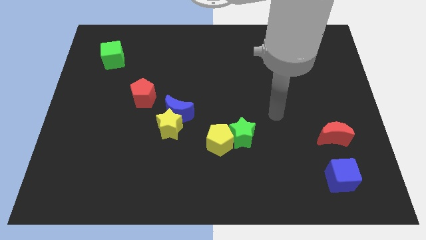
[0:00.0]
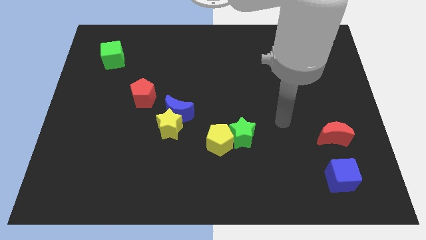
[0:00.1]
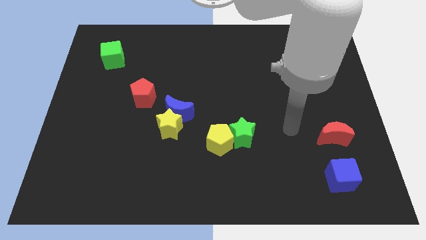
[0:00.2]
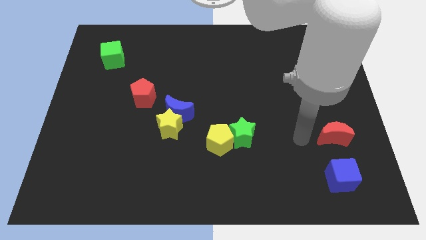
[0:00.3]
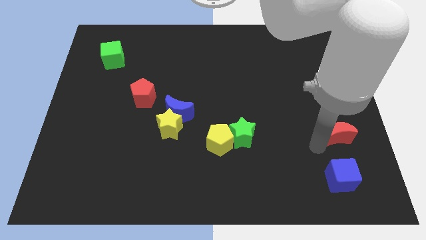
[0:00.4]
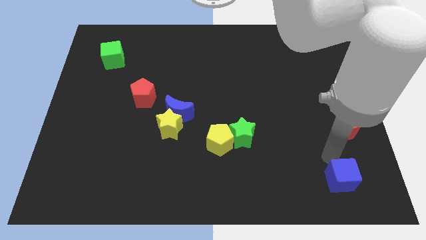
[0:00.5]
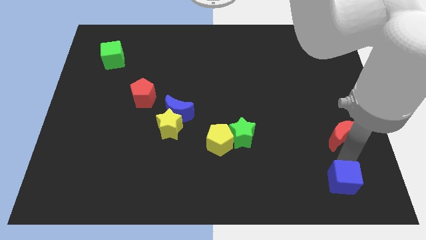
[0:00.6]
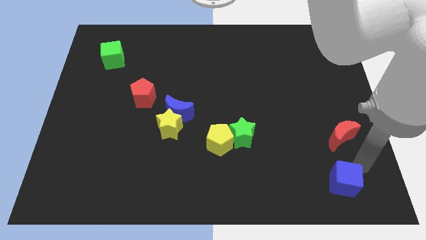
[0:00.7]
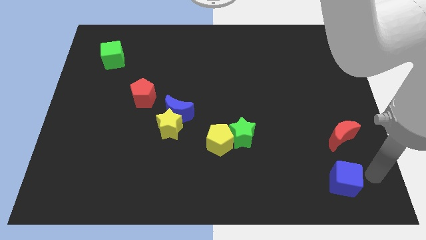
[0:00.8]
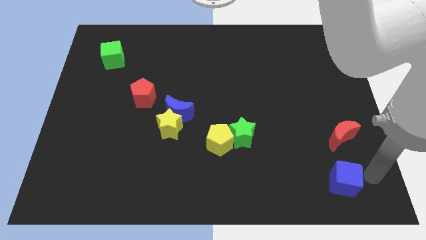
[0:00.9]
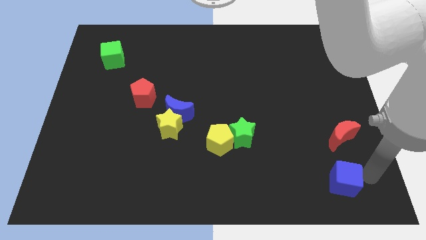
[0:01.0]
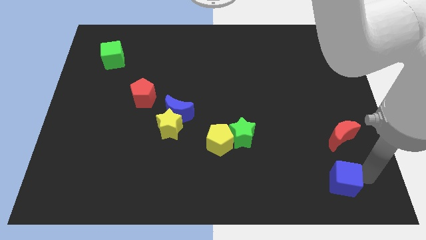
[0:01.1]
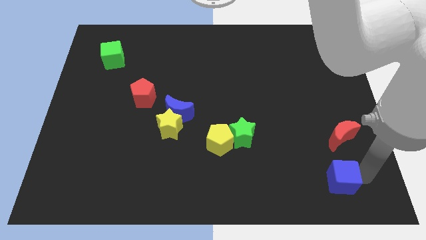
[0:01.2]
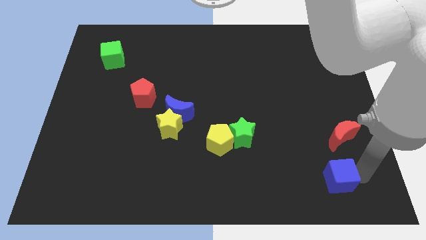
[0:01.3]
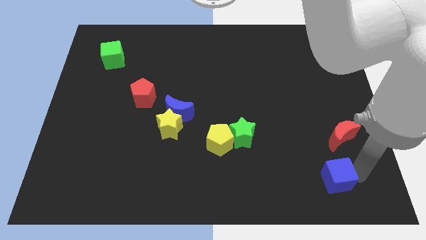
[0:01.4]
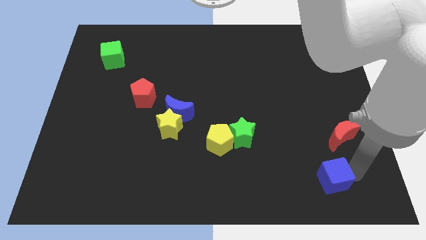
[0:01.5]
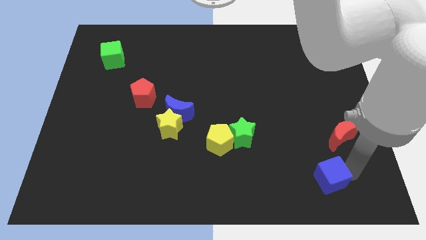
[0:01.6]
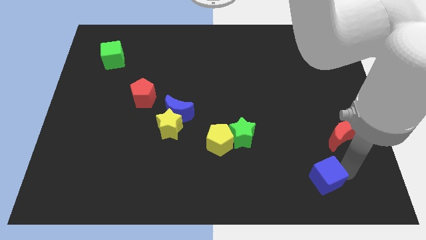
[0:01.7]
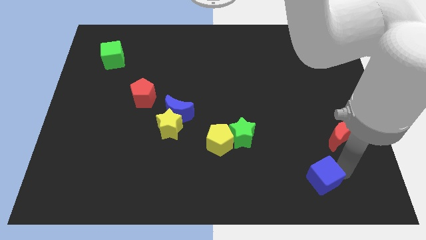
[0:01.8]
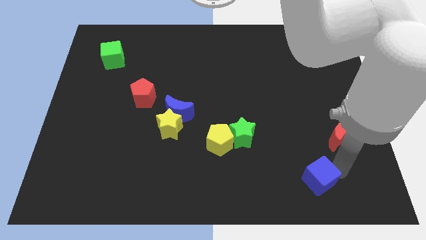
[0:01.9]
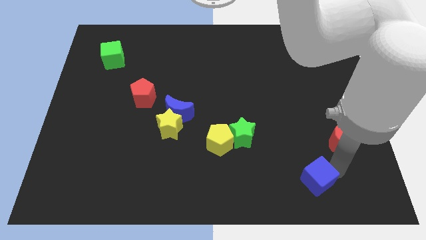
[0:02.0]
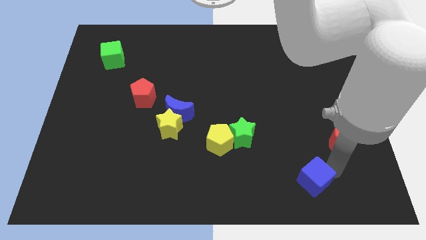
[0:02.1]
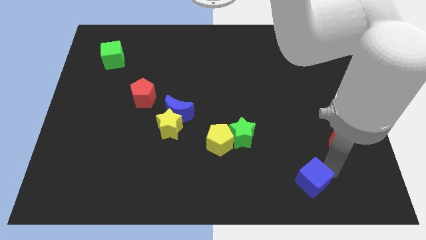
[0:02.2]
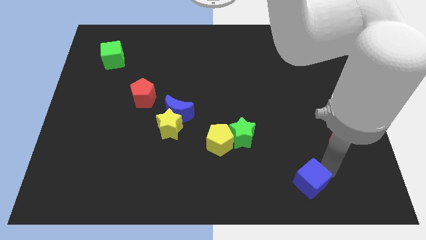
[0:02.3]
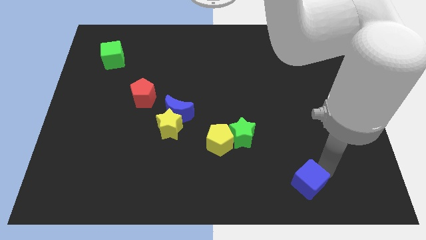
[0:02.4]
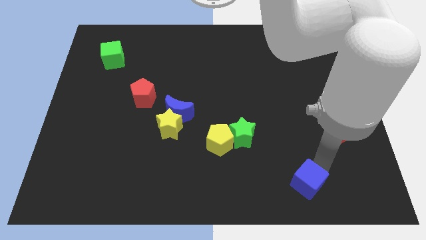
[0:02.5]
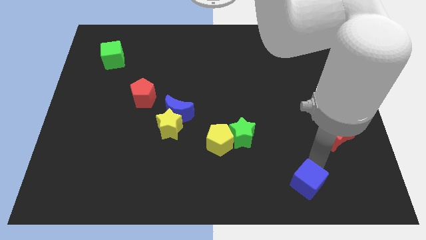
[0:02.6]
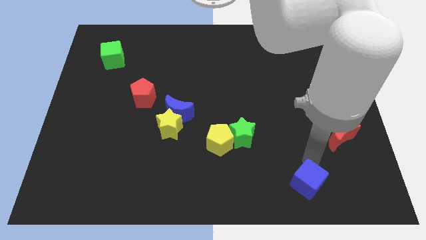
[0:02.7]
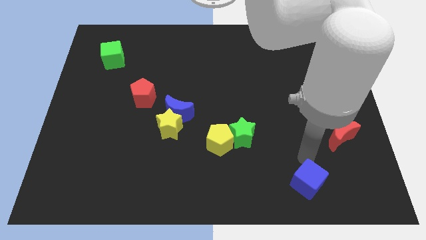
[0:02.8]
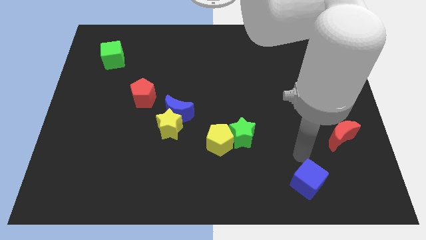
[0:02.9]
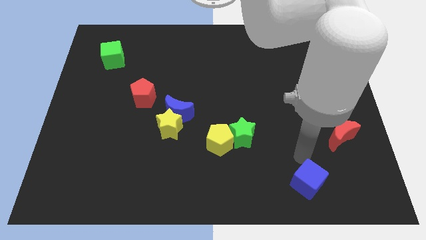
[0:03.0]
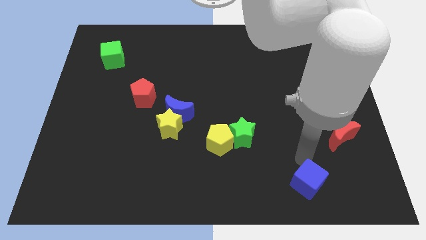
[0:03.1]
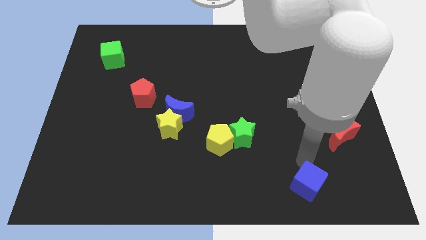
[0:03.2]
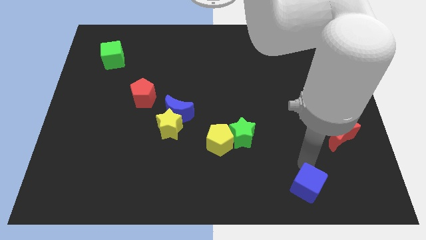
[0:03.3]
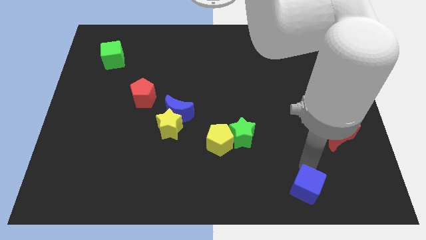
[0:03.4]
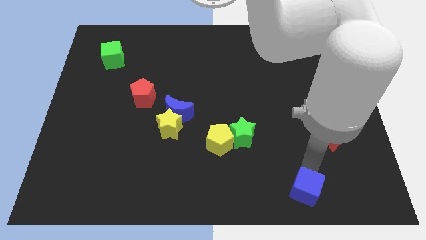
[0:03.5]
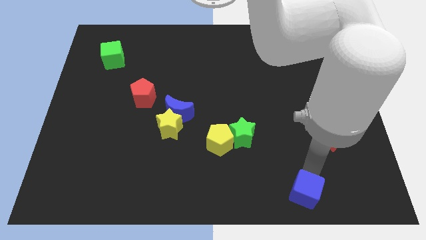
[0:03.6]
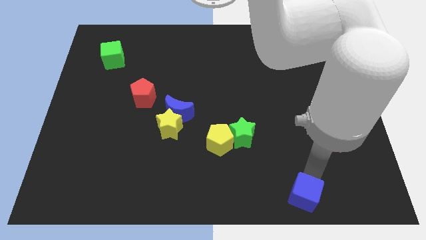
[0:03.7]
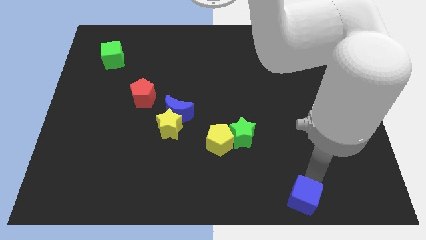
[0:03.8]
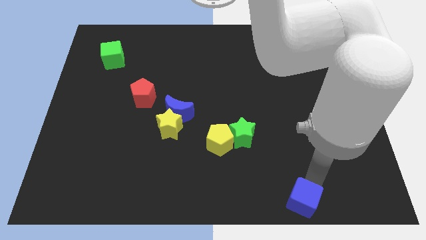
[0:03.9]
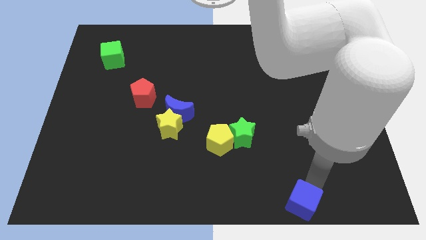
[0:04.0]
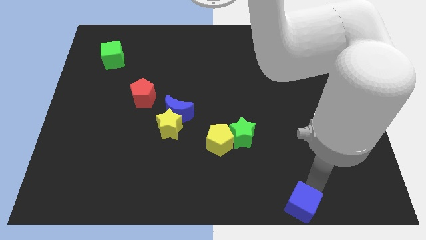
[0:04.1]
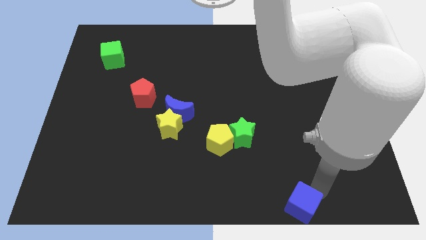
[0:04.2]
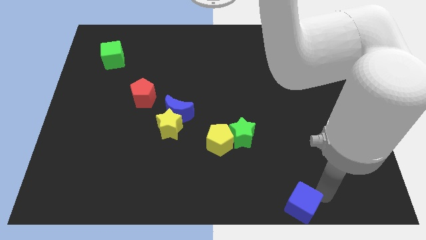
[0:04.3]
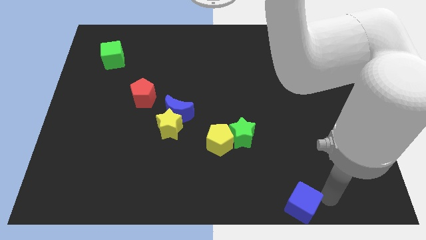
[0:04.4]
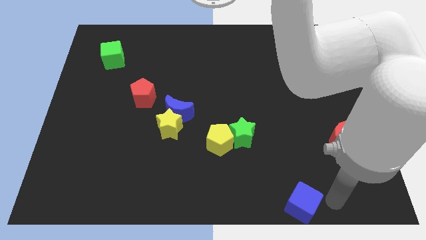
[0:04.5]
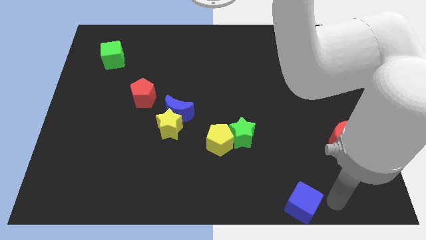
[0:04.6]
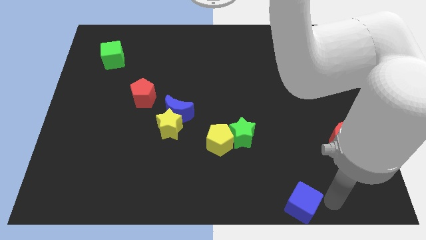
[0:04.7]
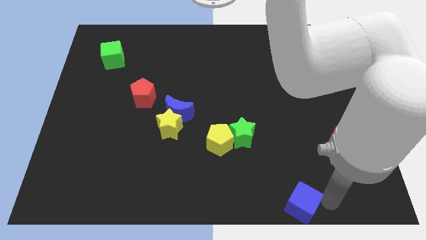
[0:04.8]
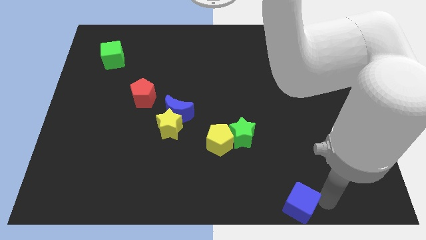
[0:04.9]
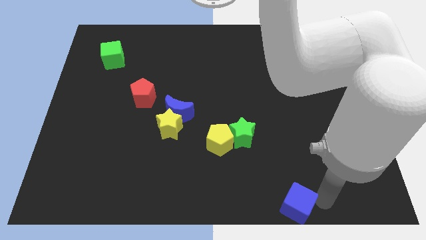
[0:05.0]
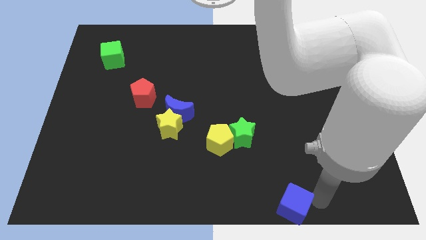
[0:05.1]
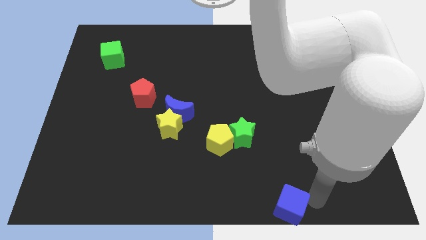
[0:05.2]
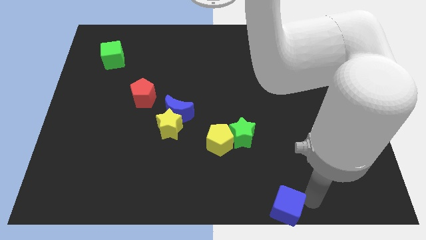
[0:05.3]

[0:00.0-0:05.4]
slide the blue cube to the bottom
